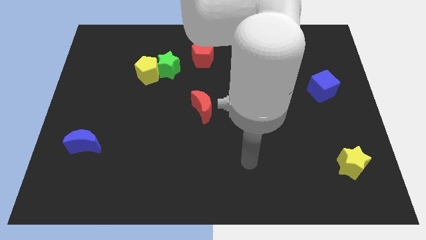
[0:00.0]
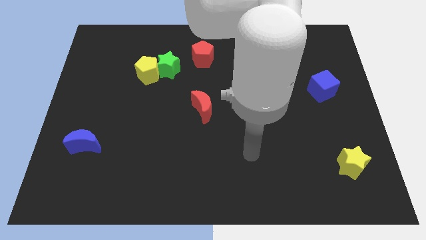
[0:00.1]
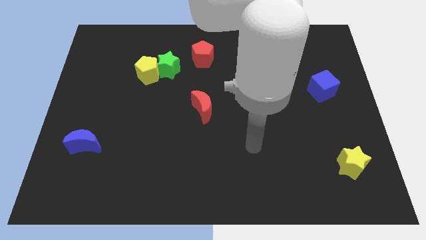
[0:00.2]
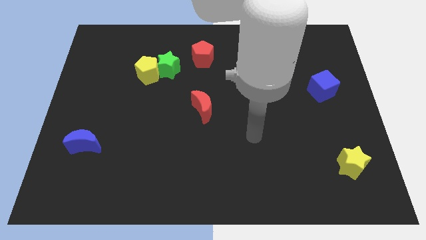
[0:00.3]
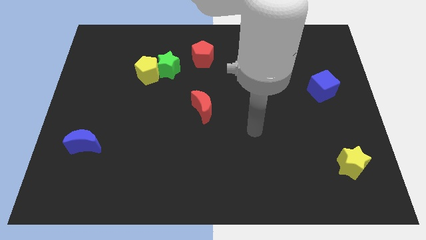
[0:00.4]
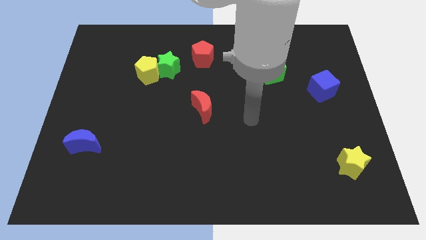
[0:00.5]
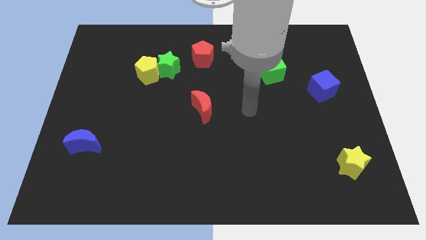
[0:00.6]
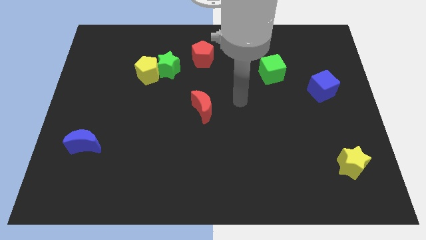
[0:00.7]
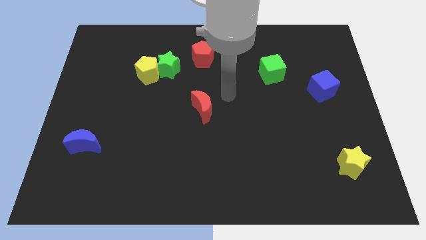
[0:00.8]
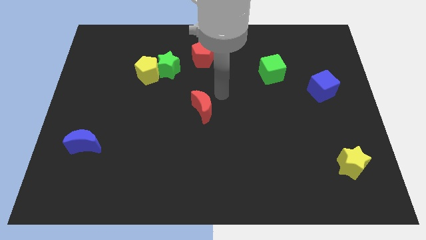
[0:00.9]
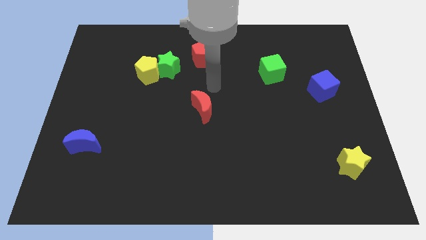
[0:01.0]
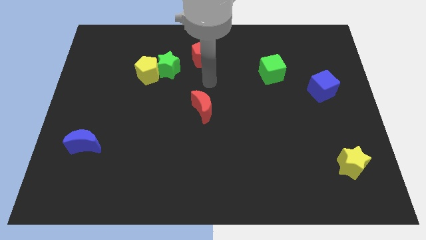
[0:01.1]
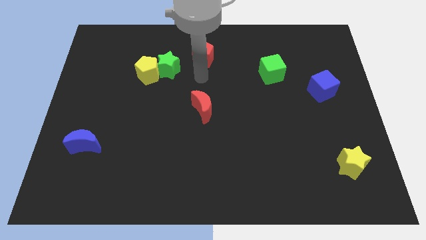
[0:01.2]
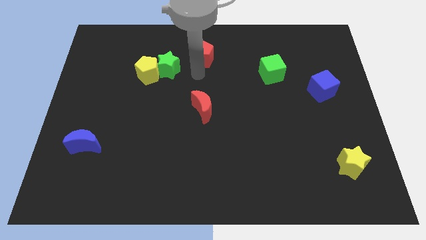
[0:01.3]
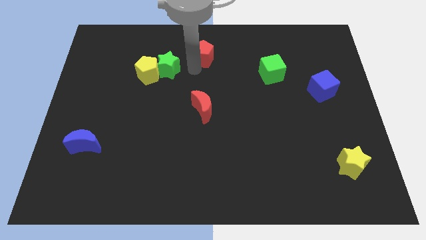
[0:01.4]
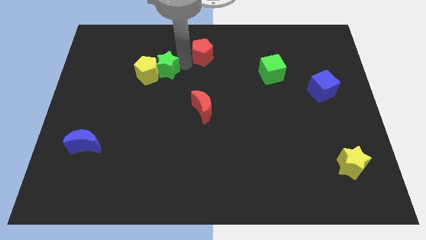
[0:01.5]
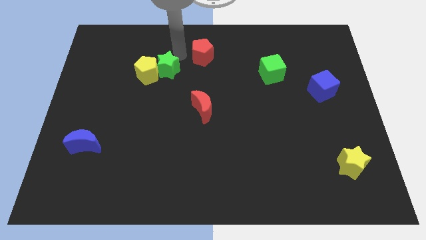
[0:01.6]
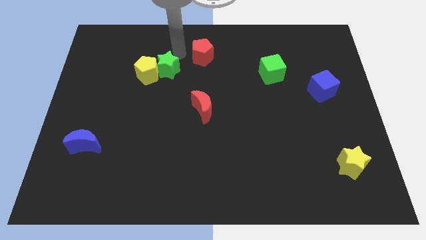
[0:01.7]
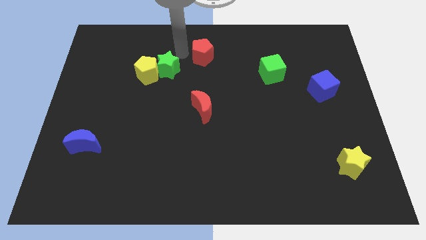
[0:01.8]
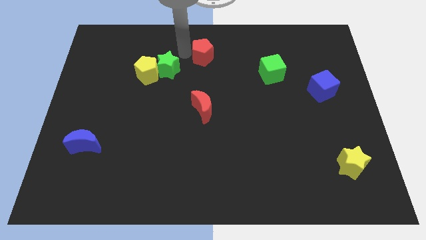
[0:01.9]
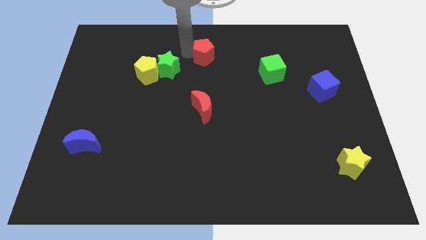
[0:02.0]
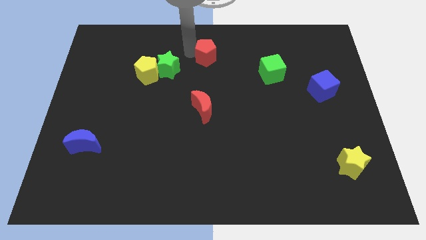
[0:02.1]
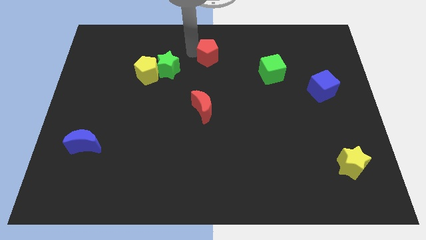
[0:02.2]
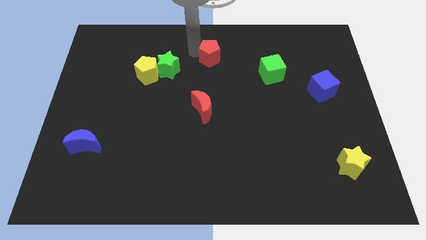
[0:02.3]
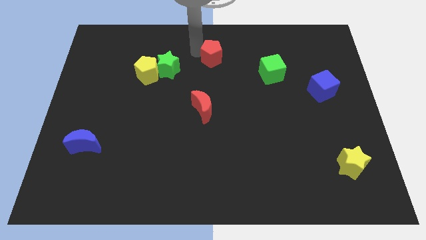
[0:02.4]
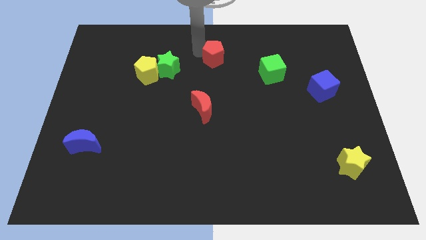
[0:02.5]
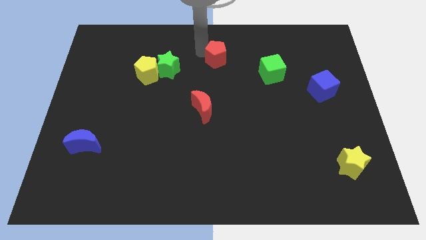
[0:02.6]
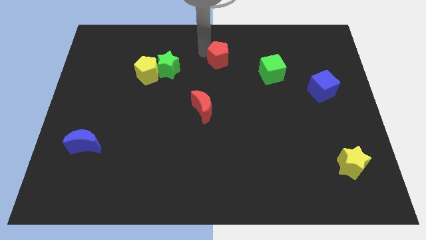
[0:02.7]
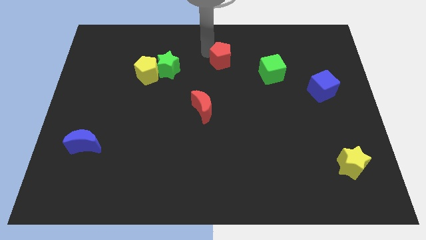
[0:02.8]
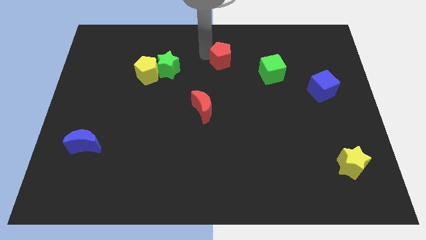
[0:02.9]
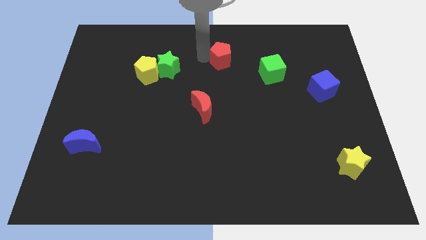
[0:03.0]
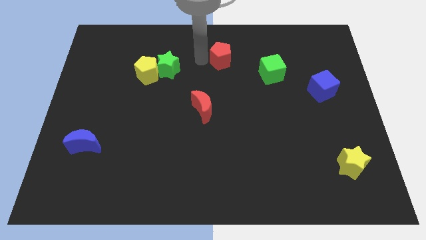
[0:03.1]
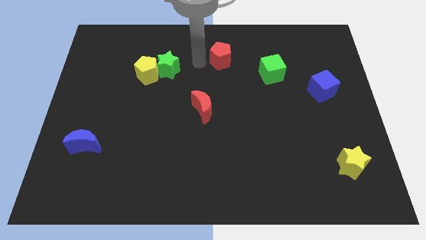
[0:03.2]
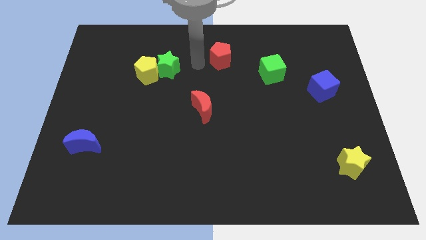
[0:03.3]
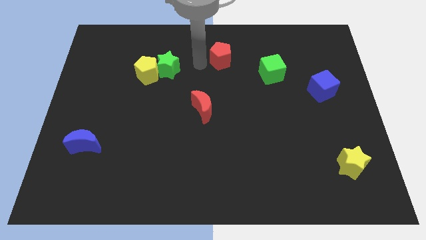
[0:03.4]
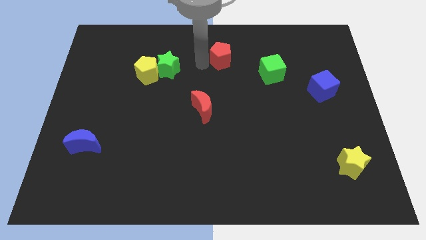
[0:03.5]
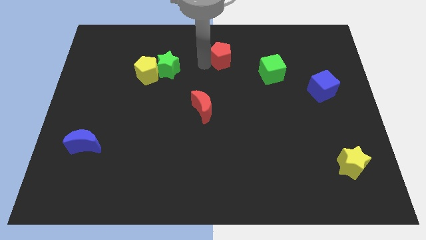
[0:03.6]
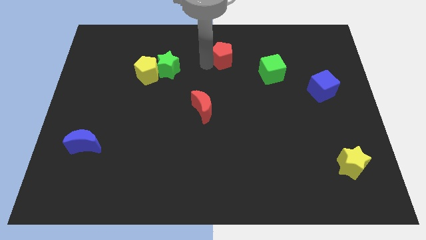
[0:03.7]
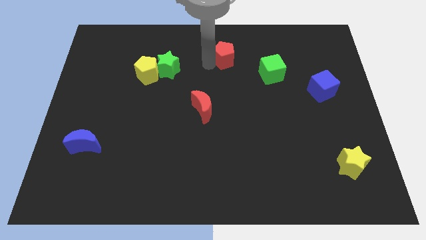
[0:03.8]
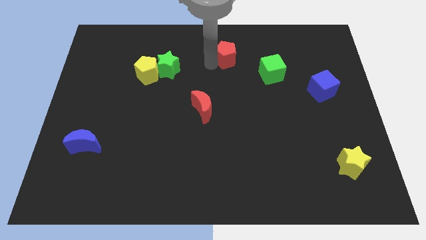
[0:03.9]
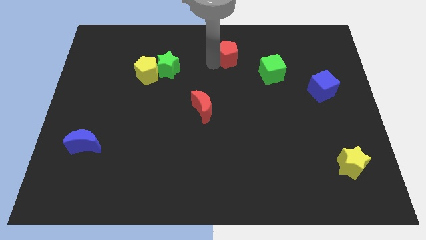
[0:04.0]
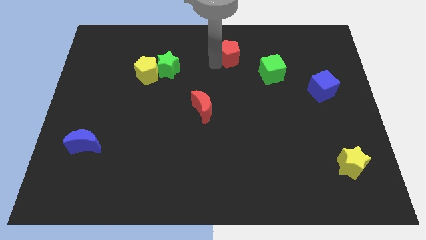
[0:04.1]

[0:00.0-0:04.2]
slide the red pentagon a bit to the right

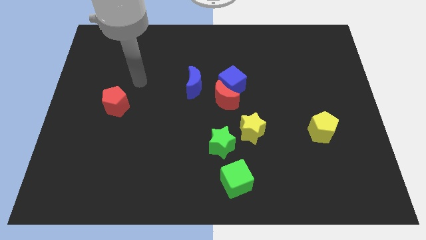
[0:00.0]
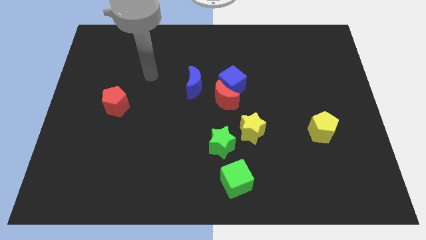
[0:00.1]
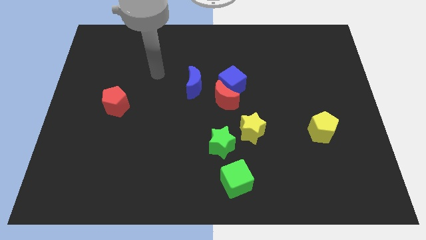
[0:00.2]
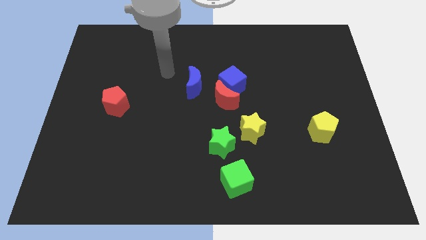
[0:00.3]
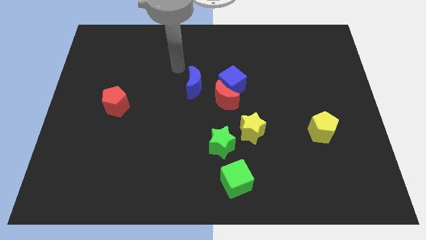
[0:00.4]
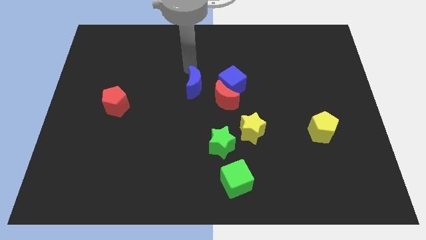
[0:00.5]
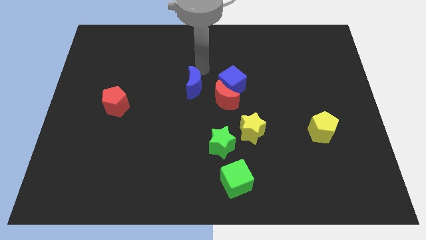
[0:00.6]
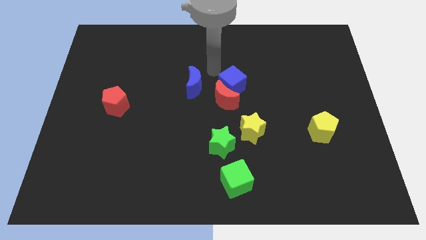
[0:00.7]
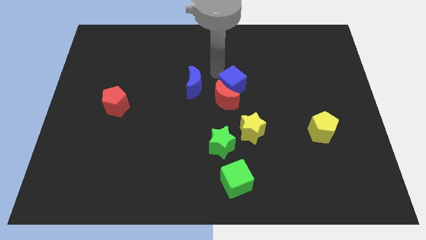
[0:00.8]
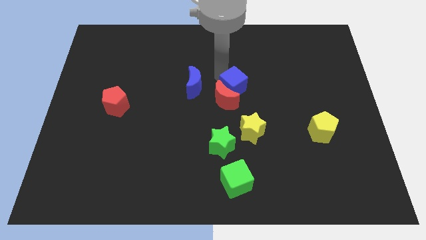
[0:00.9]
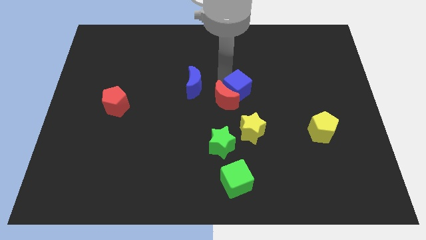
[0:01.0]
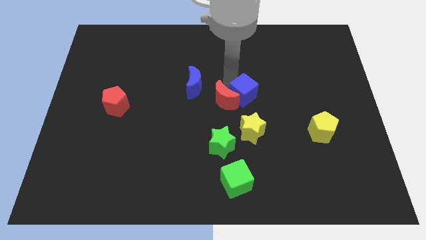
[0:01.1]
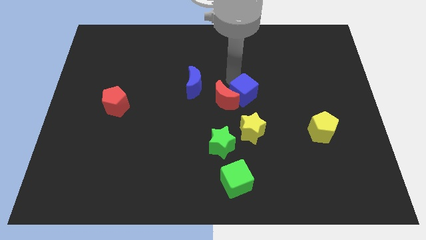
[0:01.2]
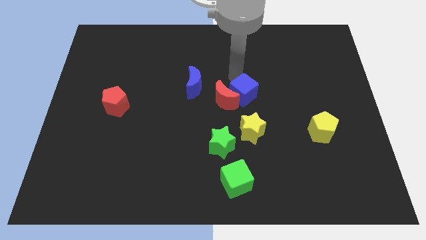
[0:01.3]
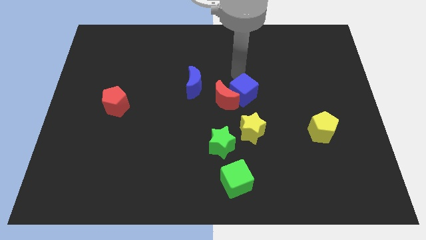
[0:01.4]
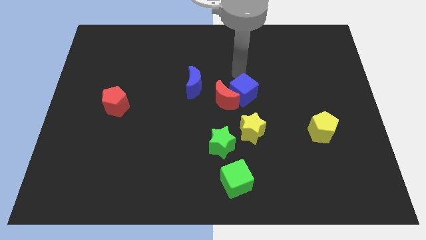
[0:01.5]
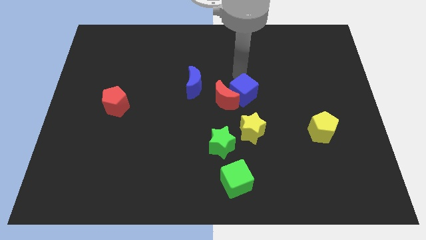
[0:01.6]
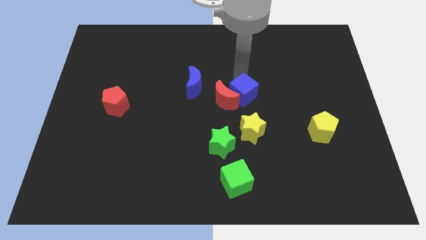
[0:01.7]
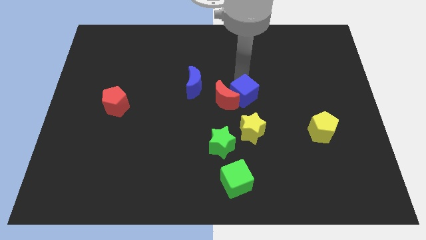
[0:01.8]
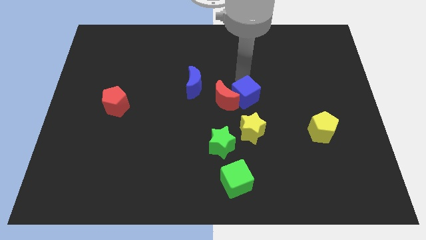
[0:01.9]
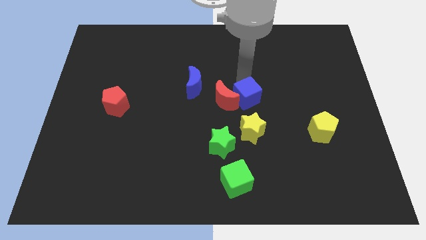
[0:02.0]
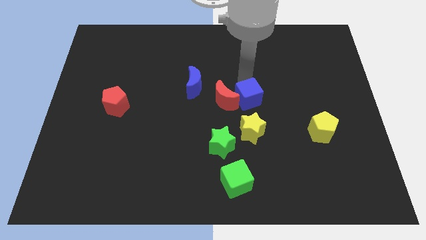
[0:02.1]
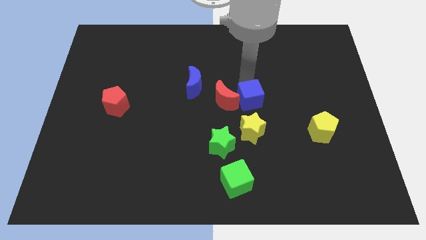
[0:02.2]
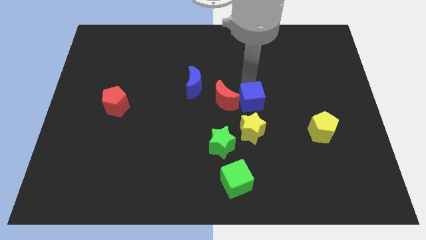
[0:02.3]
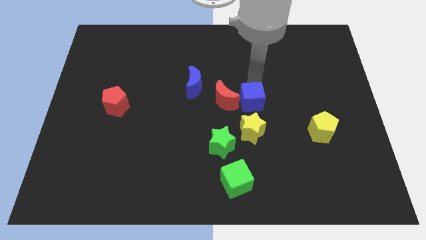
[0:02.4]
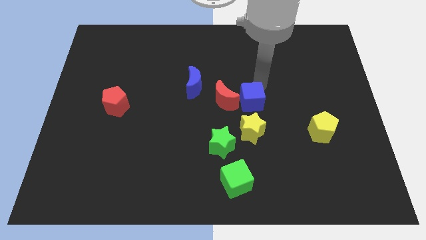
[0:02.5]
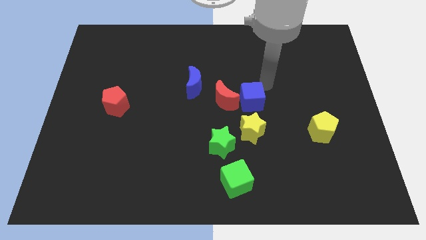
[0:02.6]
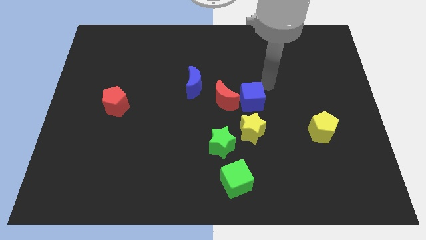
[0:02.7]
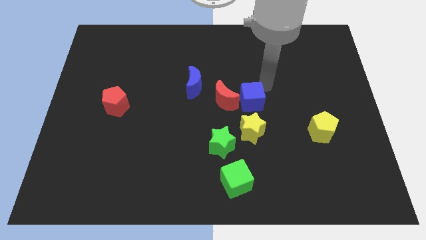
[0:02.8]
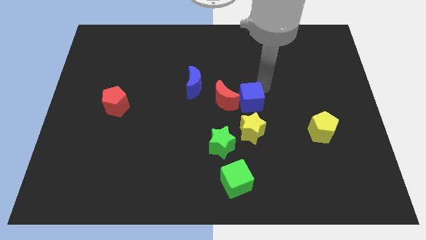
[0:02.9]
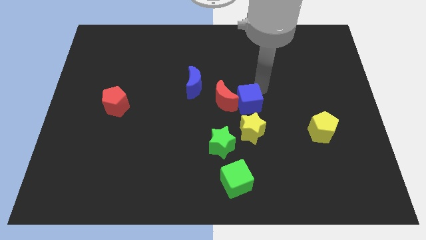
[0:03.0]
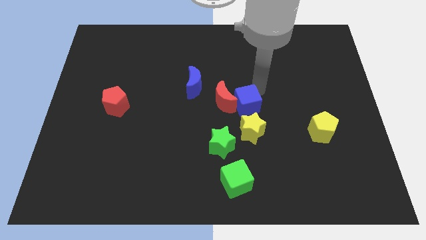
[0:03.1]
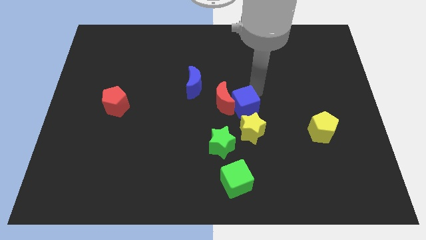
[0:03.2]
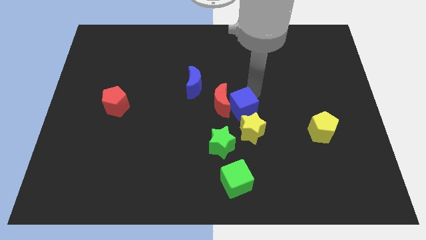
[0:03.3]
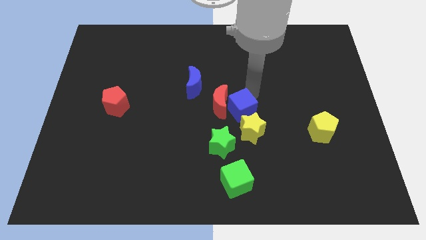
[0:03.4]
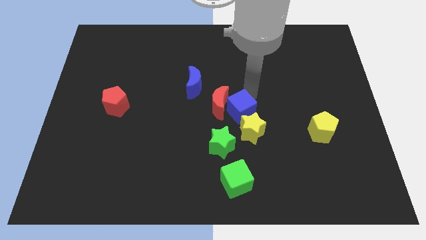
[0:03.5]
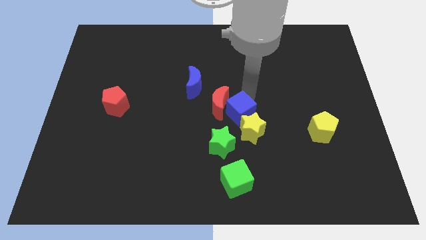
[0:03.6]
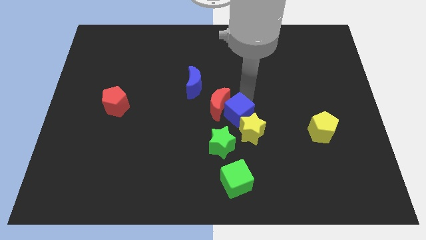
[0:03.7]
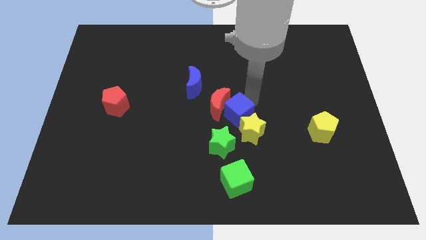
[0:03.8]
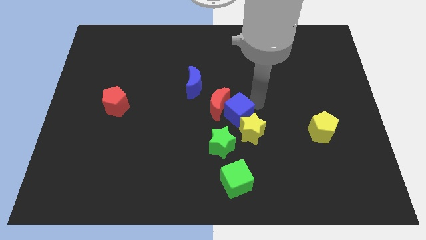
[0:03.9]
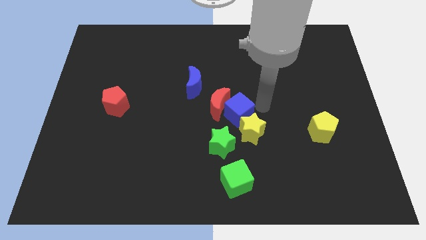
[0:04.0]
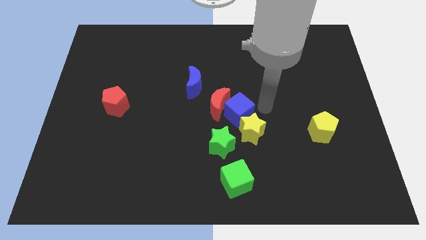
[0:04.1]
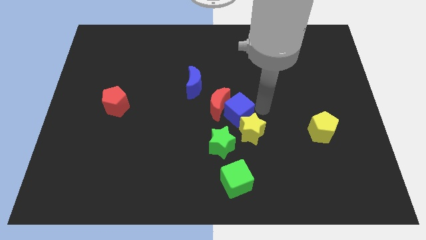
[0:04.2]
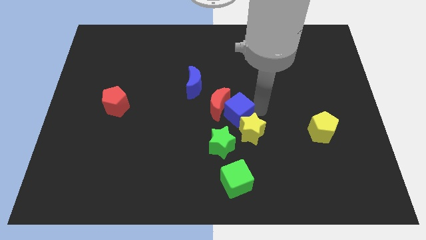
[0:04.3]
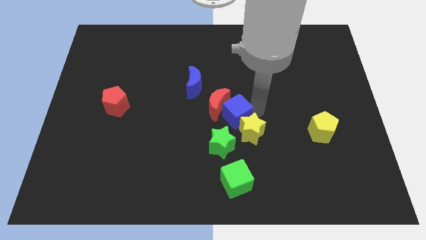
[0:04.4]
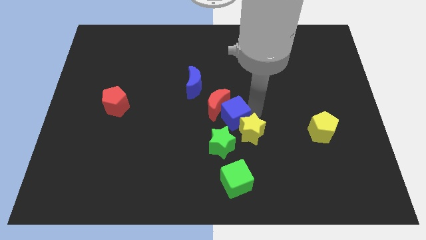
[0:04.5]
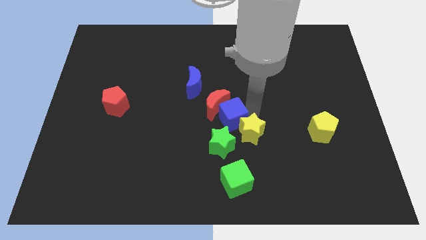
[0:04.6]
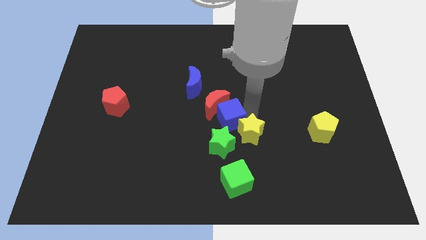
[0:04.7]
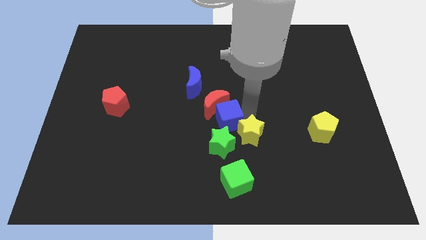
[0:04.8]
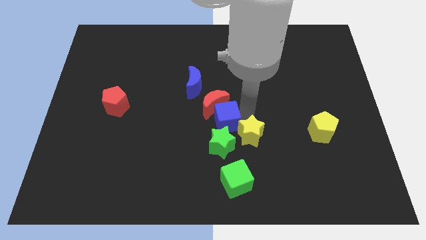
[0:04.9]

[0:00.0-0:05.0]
slightly push the blue cube downwards and then left
